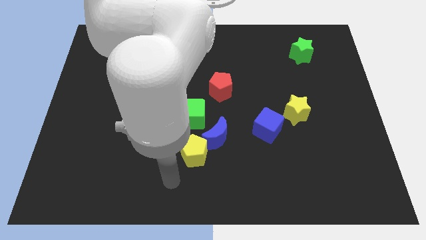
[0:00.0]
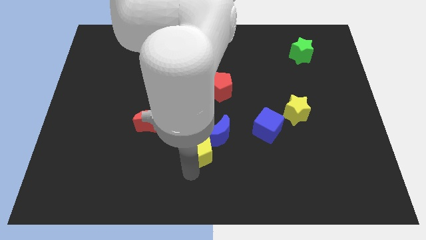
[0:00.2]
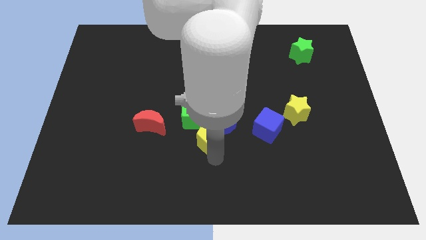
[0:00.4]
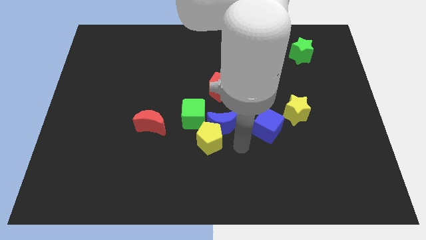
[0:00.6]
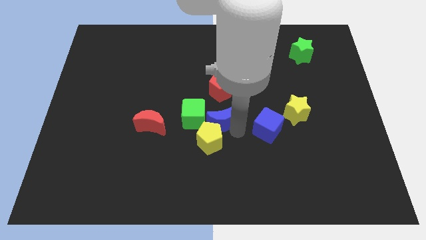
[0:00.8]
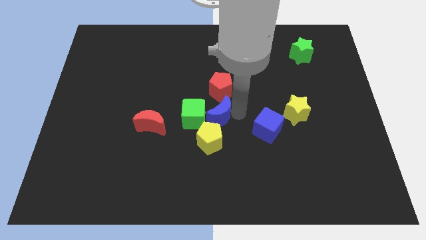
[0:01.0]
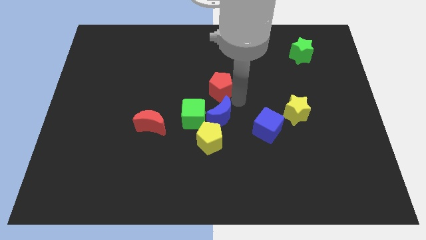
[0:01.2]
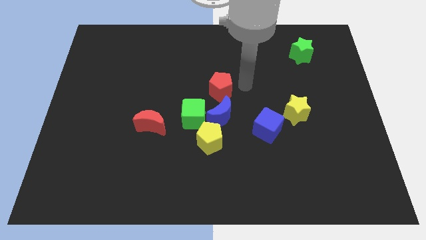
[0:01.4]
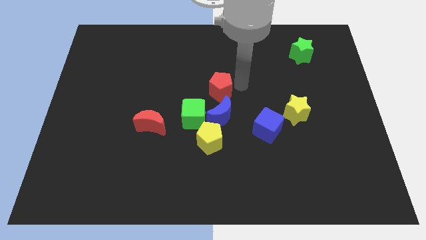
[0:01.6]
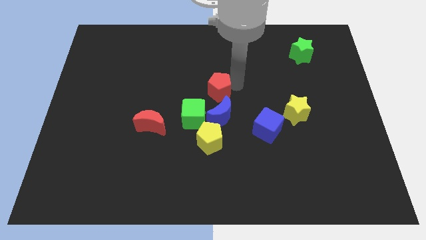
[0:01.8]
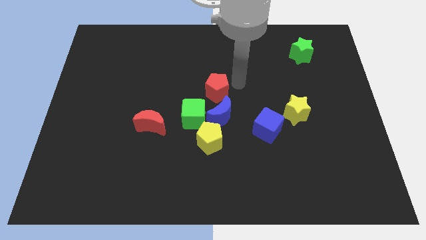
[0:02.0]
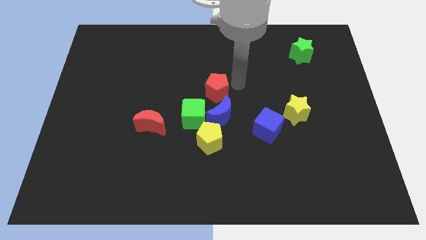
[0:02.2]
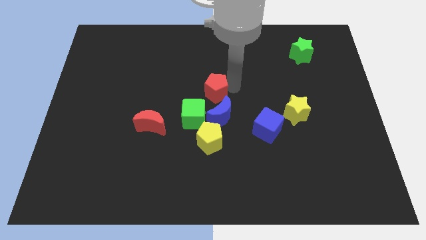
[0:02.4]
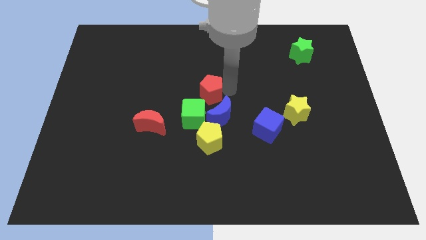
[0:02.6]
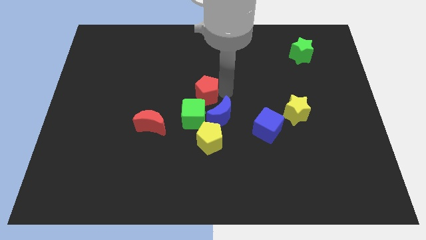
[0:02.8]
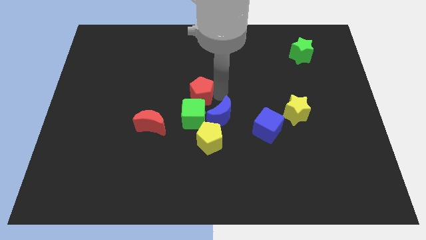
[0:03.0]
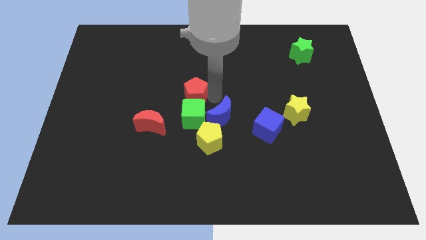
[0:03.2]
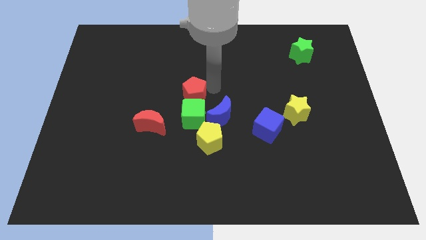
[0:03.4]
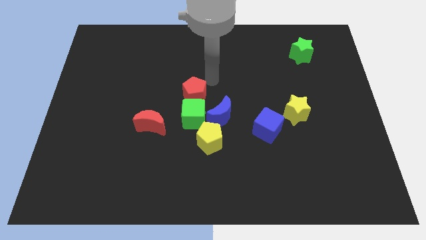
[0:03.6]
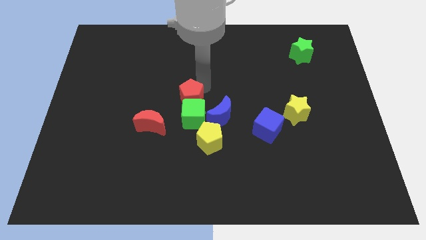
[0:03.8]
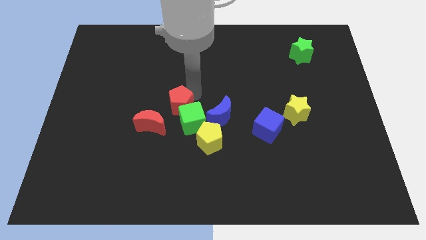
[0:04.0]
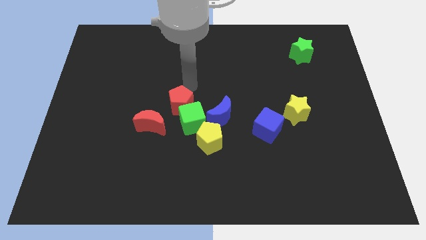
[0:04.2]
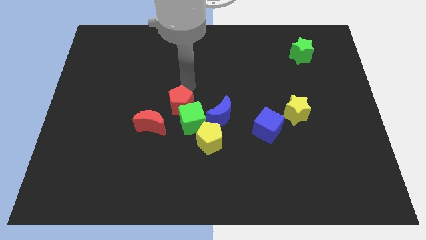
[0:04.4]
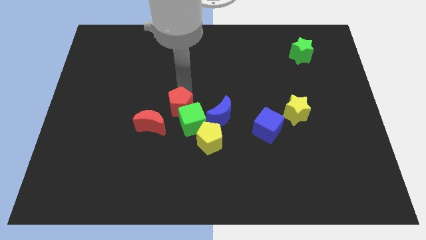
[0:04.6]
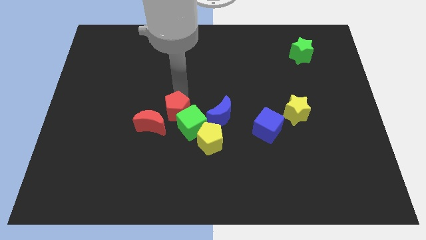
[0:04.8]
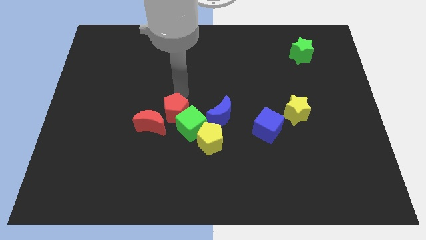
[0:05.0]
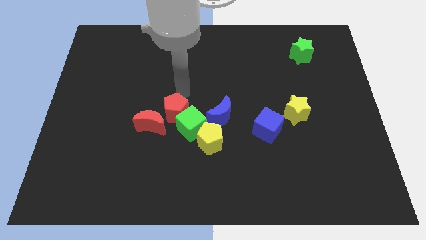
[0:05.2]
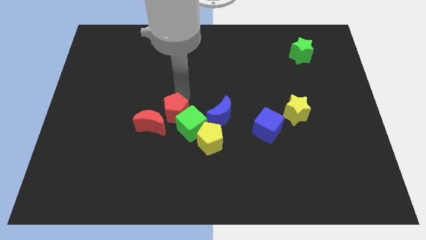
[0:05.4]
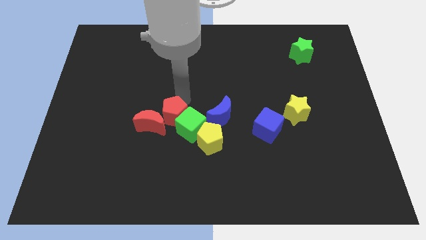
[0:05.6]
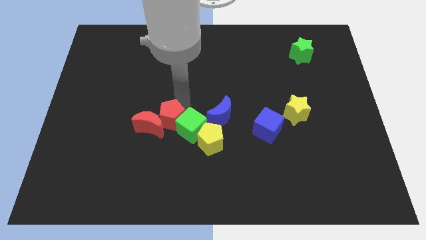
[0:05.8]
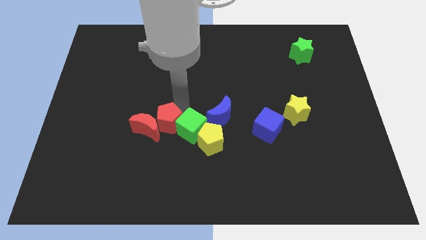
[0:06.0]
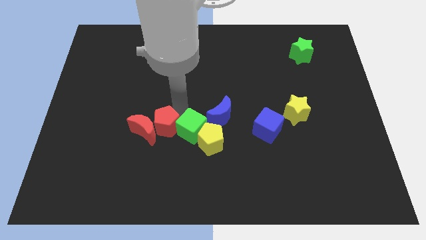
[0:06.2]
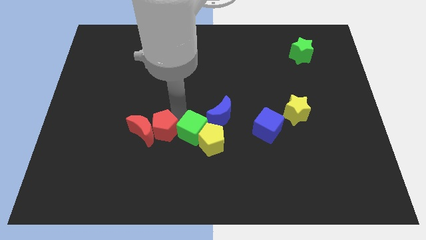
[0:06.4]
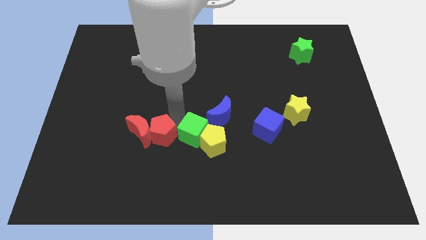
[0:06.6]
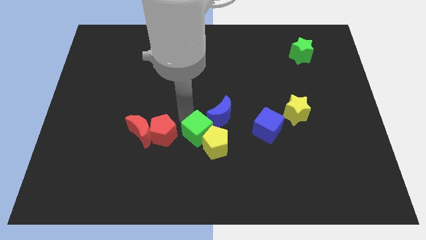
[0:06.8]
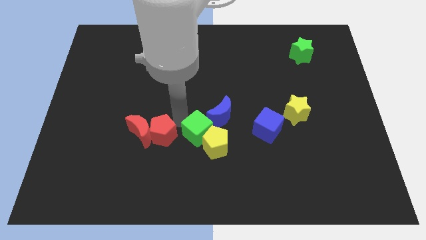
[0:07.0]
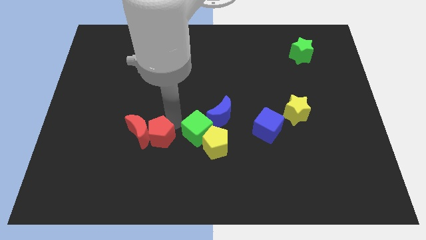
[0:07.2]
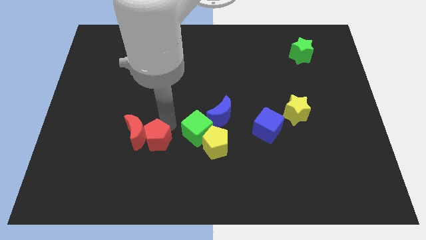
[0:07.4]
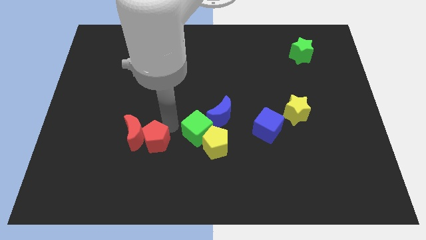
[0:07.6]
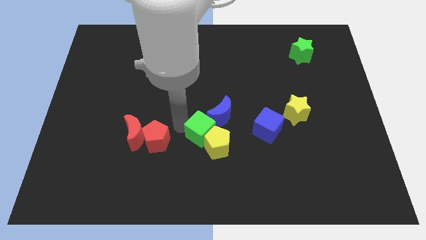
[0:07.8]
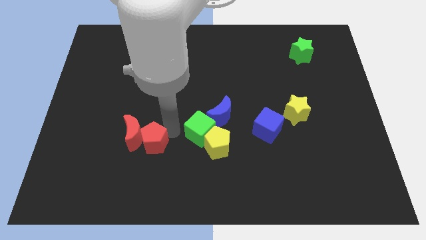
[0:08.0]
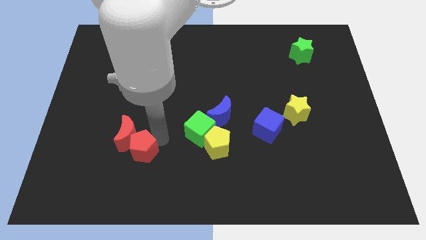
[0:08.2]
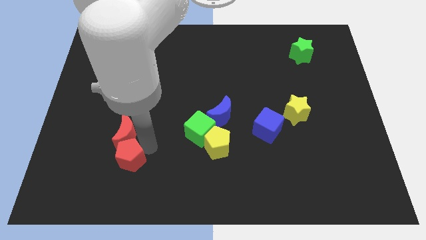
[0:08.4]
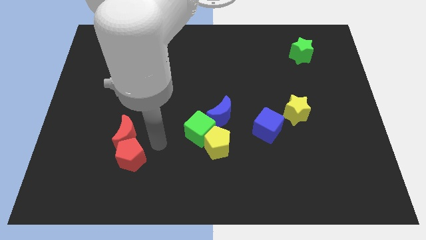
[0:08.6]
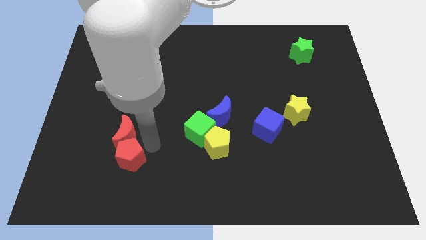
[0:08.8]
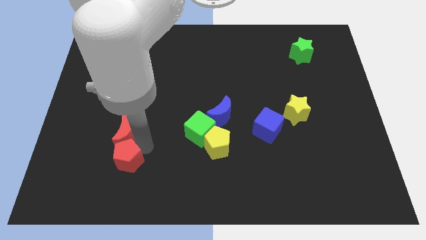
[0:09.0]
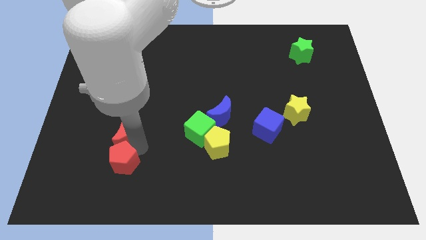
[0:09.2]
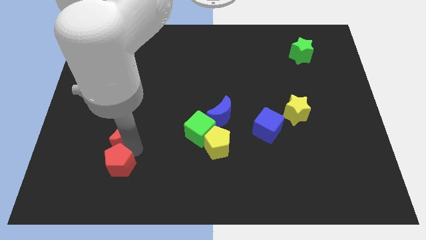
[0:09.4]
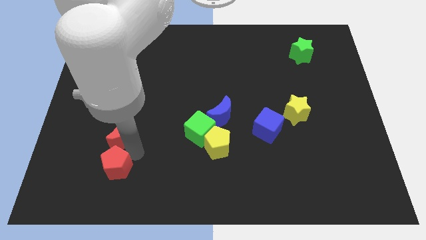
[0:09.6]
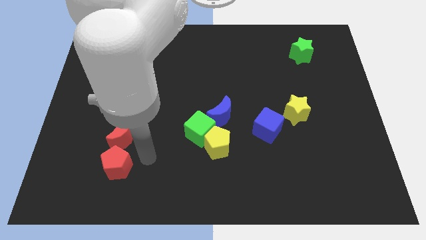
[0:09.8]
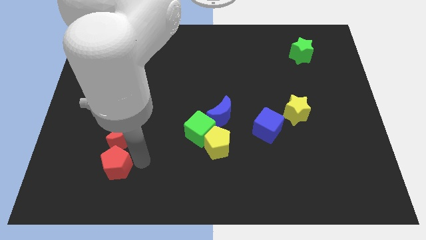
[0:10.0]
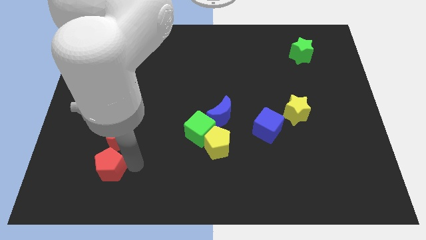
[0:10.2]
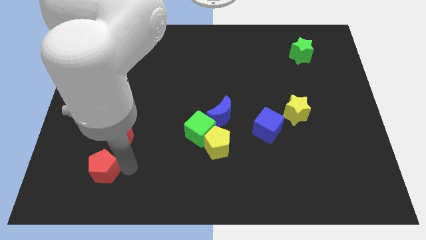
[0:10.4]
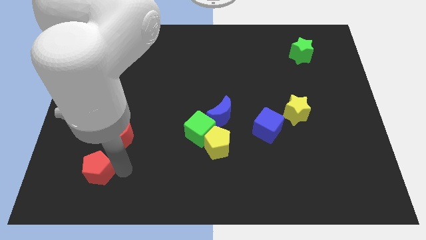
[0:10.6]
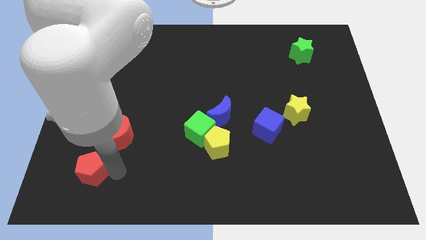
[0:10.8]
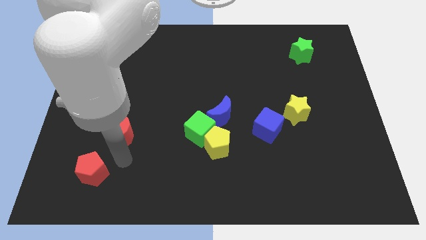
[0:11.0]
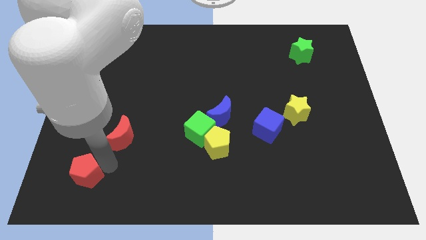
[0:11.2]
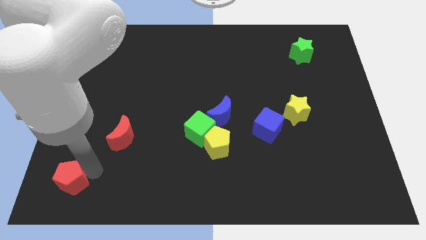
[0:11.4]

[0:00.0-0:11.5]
move the red pentagon to the lower left corner
